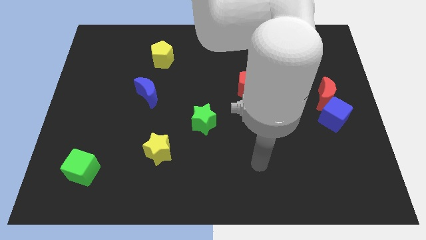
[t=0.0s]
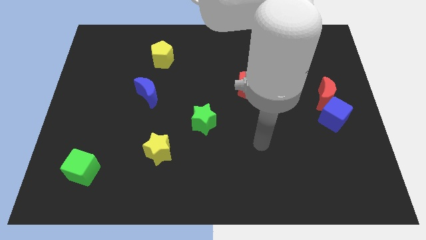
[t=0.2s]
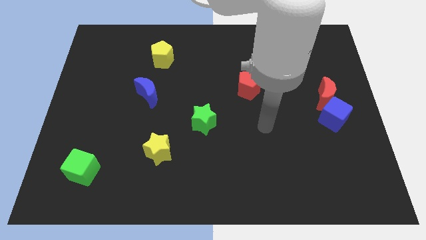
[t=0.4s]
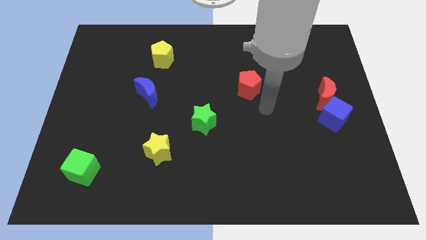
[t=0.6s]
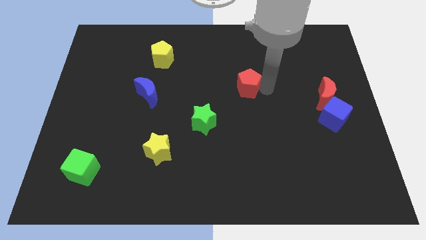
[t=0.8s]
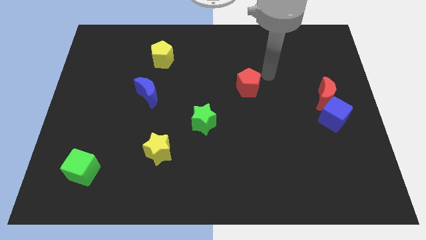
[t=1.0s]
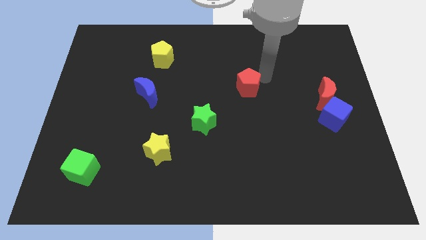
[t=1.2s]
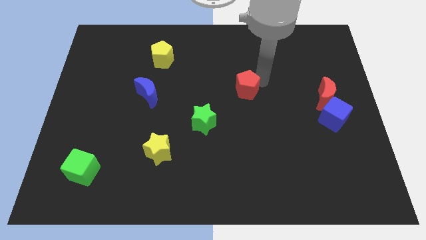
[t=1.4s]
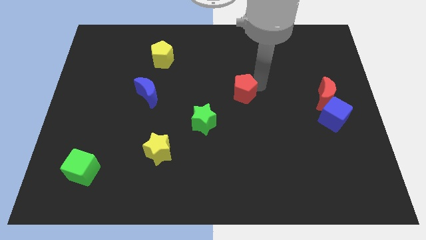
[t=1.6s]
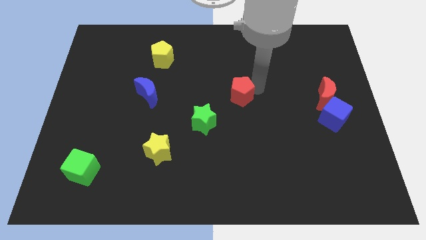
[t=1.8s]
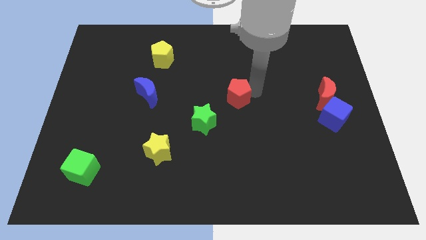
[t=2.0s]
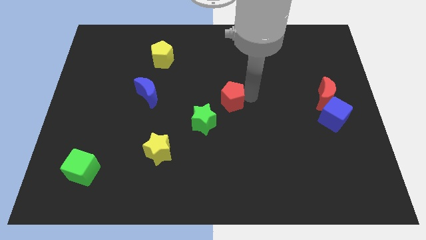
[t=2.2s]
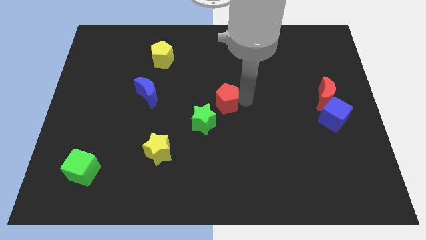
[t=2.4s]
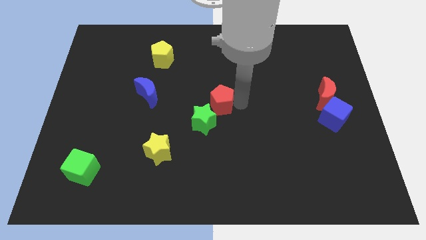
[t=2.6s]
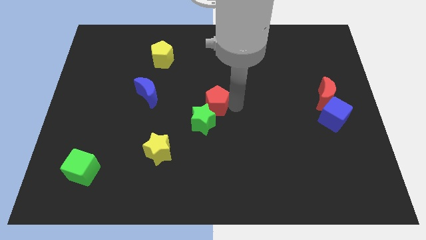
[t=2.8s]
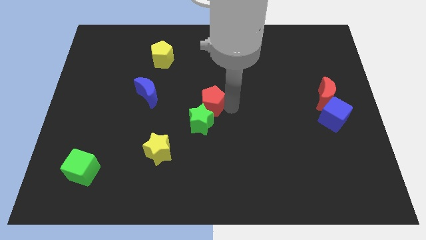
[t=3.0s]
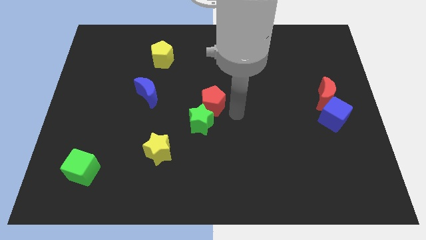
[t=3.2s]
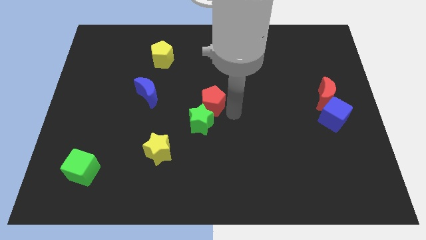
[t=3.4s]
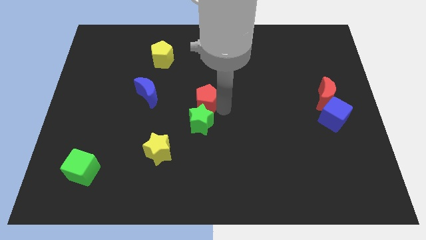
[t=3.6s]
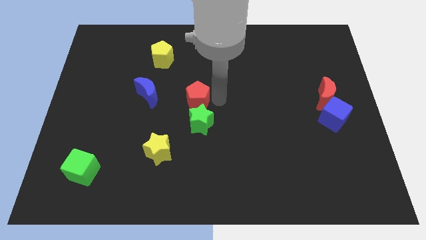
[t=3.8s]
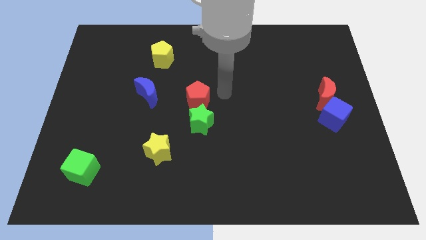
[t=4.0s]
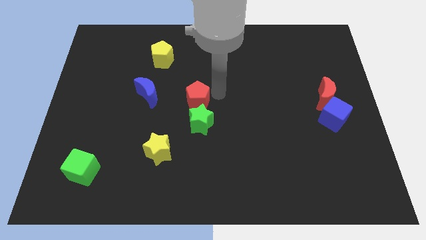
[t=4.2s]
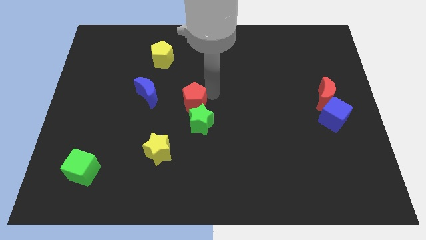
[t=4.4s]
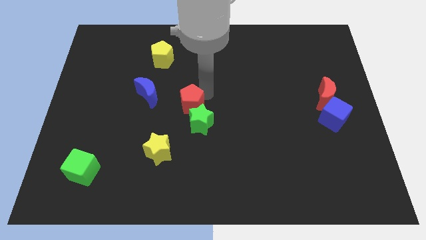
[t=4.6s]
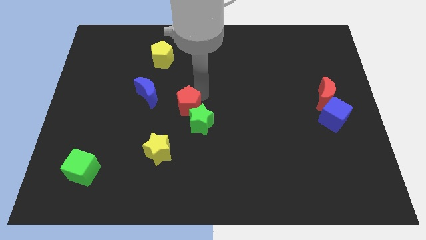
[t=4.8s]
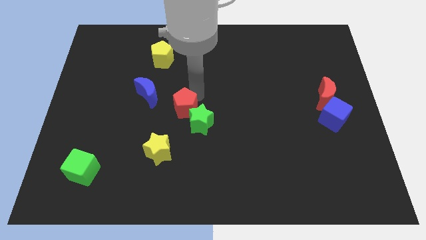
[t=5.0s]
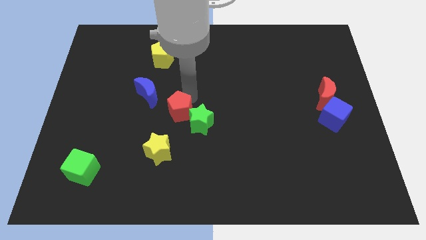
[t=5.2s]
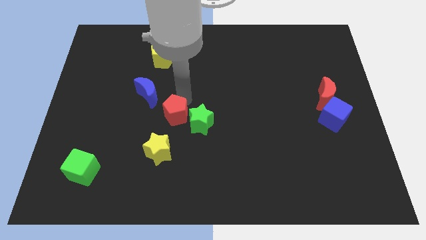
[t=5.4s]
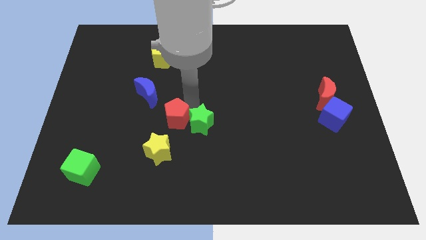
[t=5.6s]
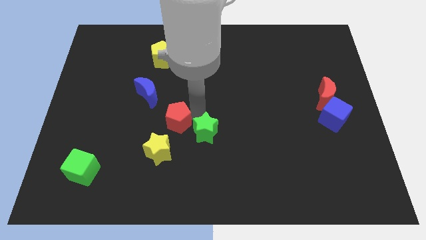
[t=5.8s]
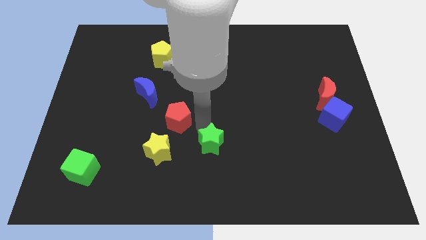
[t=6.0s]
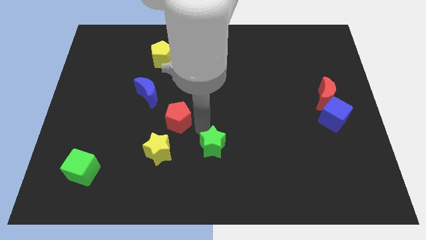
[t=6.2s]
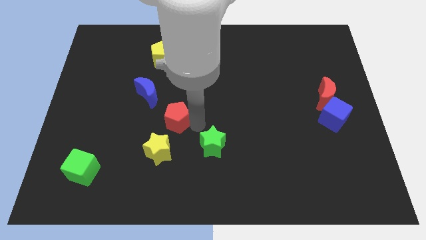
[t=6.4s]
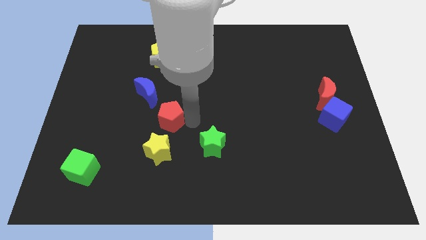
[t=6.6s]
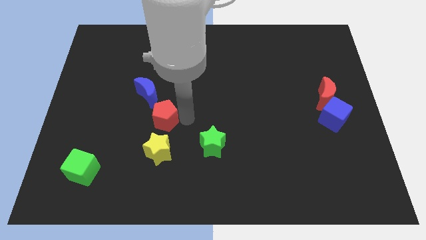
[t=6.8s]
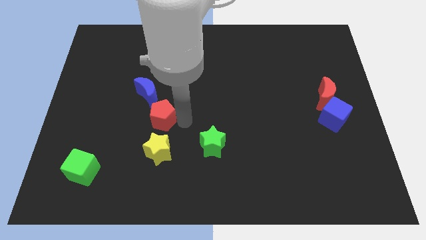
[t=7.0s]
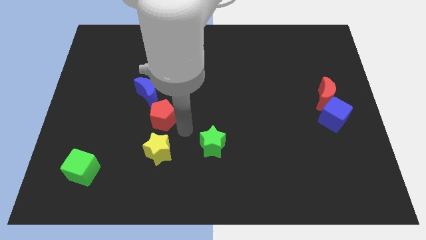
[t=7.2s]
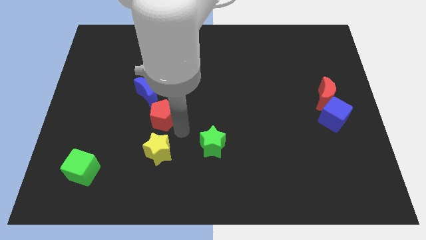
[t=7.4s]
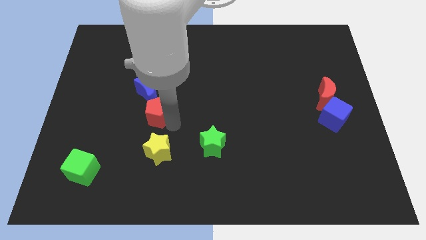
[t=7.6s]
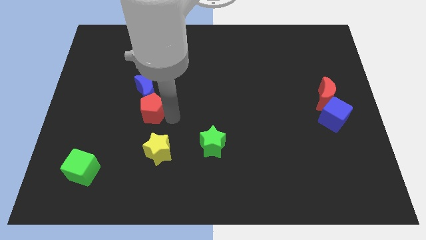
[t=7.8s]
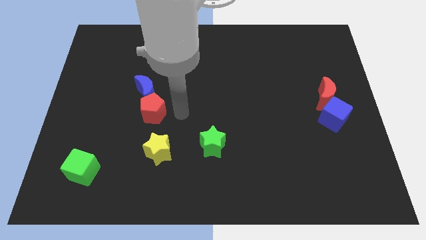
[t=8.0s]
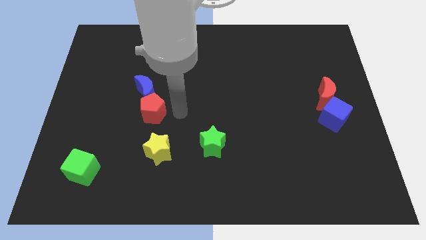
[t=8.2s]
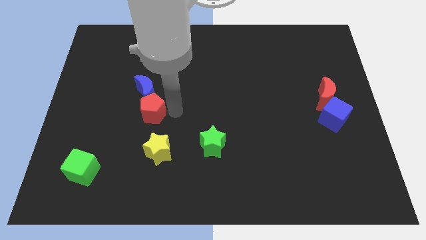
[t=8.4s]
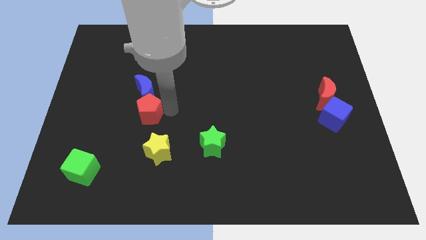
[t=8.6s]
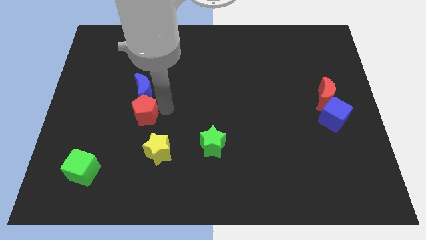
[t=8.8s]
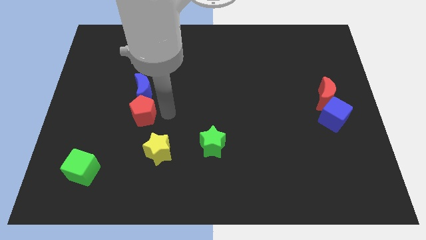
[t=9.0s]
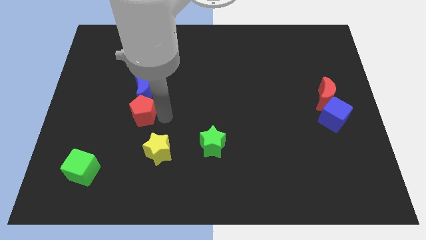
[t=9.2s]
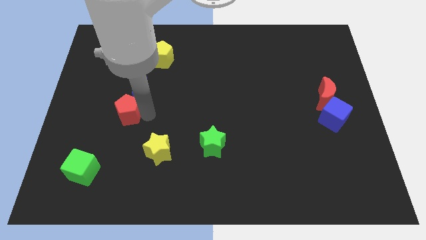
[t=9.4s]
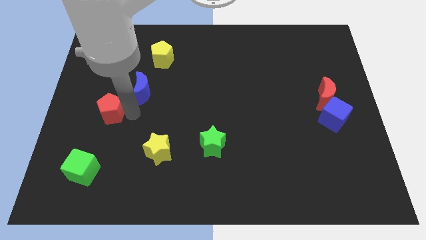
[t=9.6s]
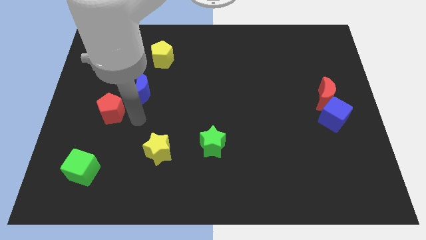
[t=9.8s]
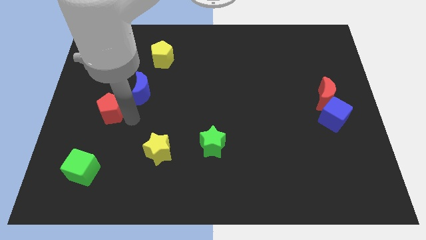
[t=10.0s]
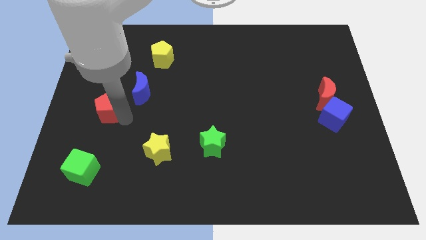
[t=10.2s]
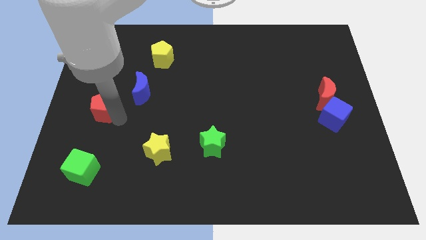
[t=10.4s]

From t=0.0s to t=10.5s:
push the red pentagon to the left side of the board

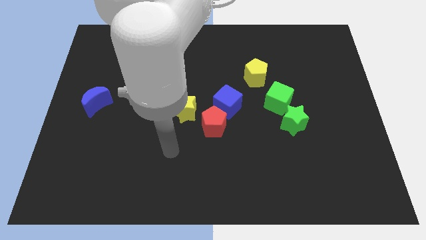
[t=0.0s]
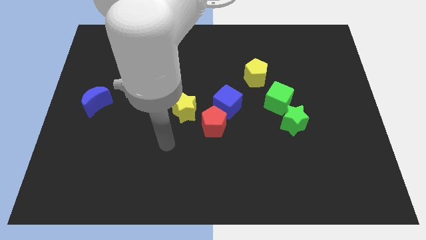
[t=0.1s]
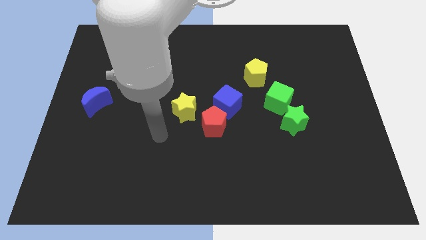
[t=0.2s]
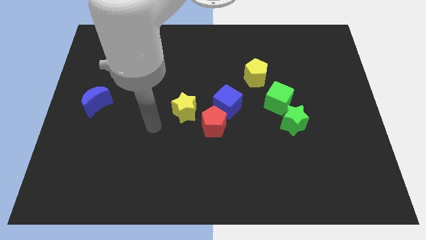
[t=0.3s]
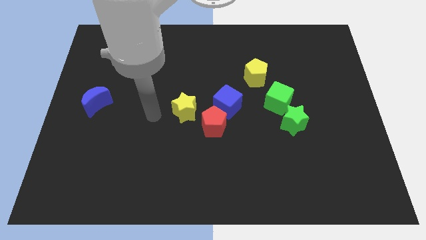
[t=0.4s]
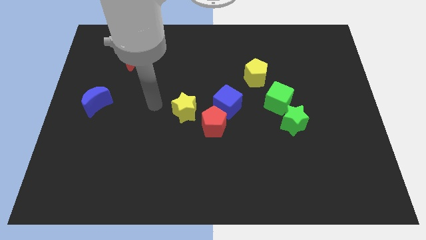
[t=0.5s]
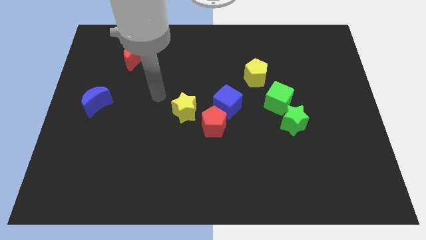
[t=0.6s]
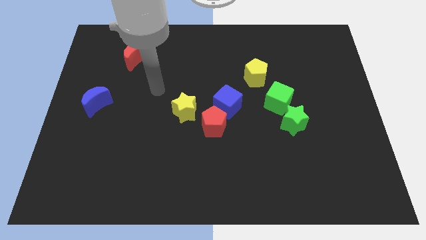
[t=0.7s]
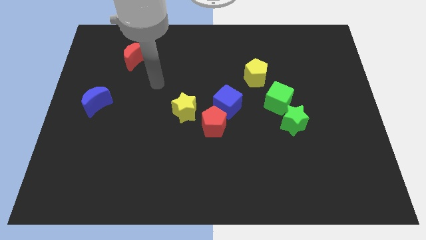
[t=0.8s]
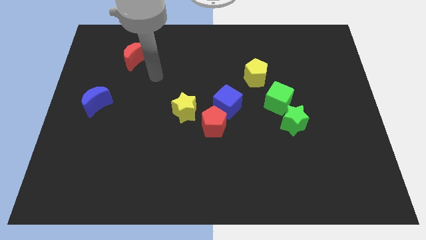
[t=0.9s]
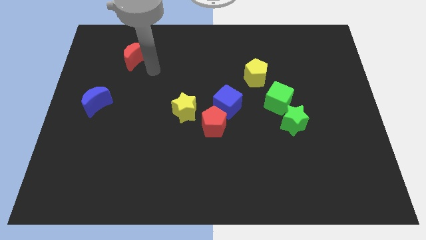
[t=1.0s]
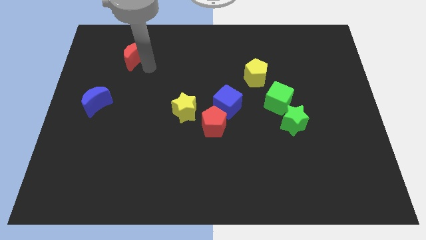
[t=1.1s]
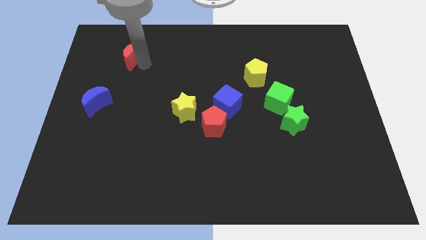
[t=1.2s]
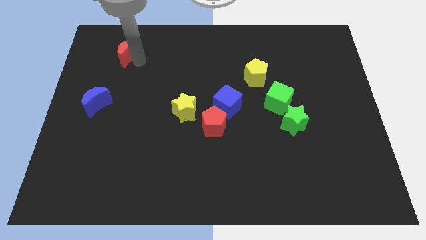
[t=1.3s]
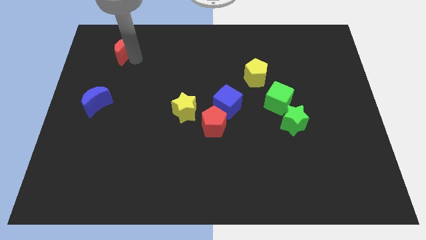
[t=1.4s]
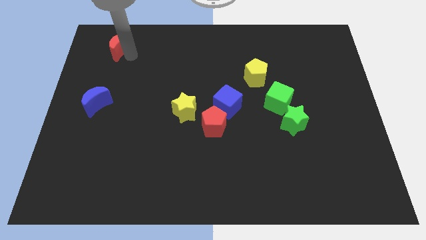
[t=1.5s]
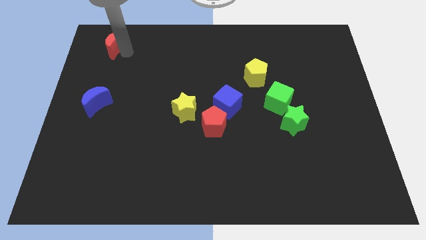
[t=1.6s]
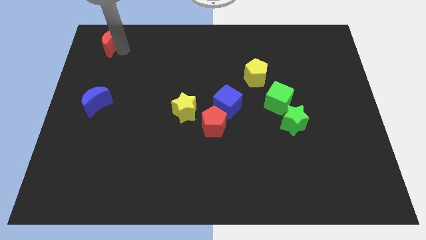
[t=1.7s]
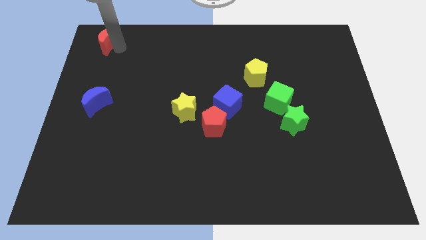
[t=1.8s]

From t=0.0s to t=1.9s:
push the red moon to the top left corner
